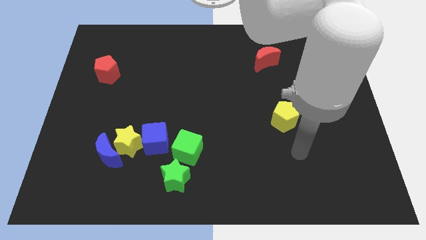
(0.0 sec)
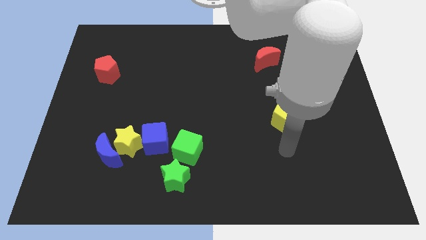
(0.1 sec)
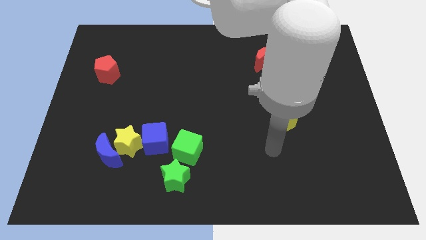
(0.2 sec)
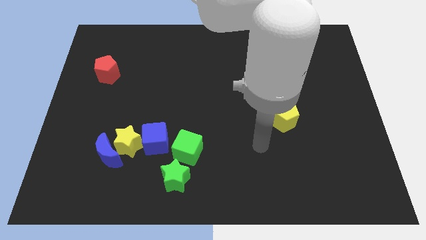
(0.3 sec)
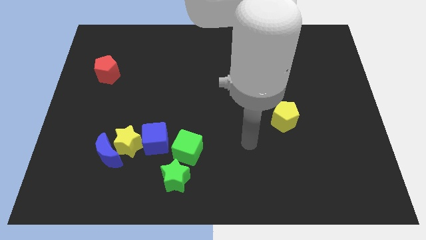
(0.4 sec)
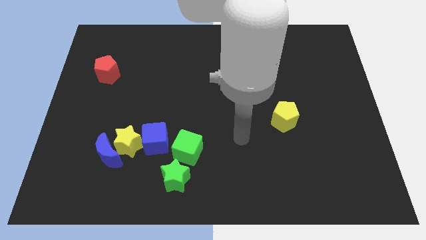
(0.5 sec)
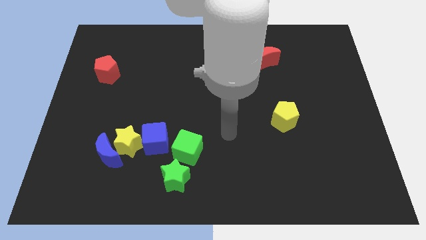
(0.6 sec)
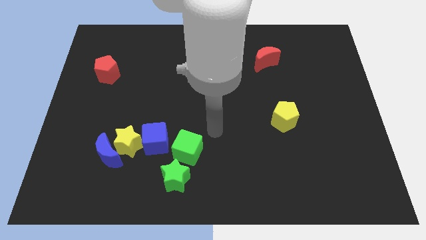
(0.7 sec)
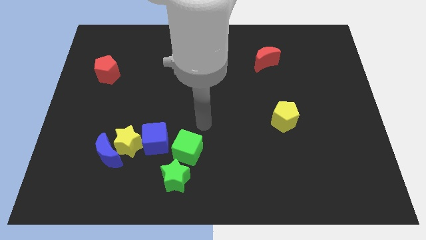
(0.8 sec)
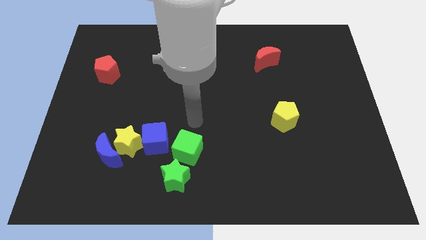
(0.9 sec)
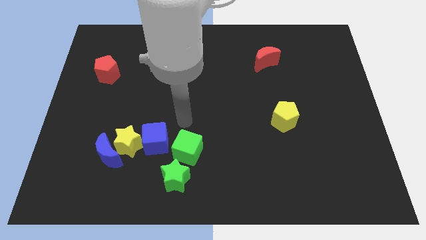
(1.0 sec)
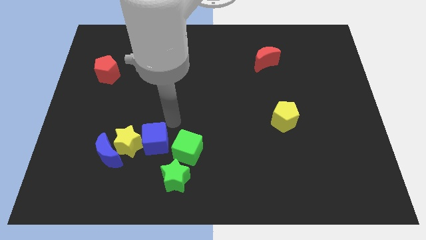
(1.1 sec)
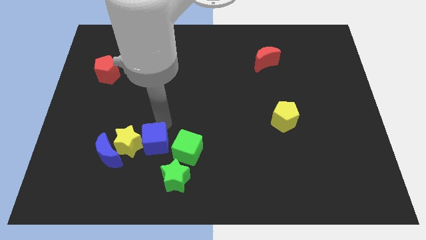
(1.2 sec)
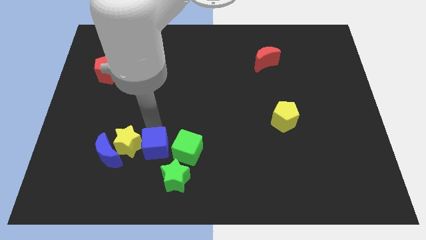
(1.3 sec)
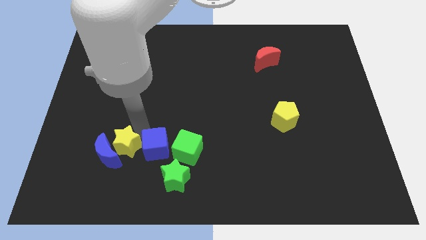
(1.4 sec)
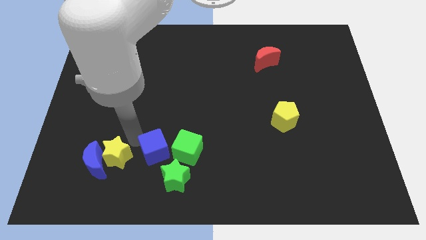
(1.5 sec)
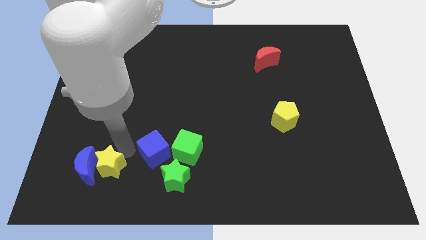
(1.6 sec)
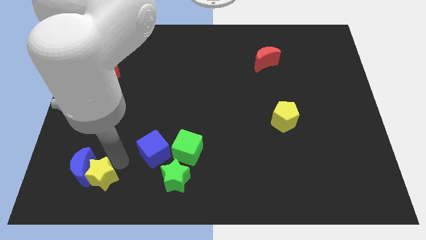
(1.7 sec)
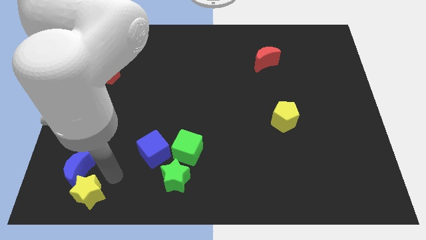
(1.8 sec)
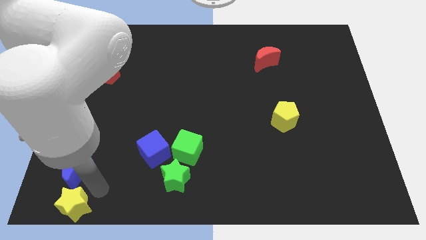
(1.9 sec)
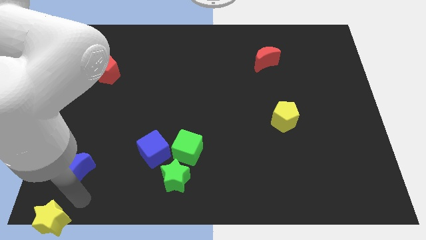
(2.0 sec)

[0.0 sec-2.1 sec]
pull the blue moon apart from the yellow star

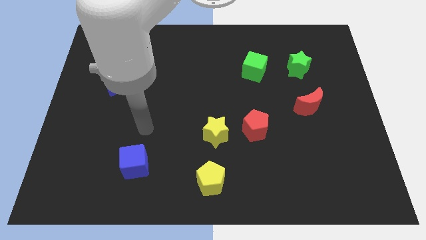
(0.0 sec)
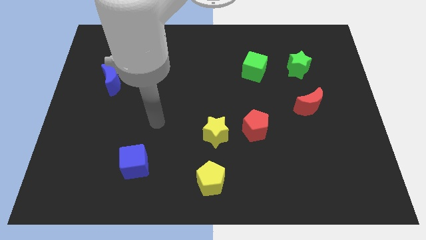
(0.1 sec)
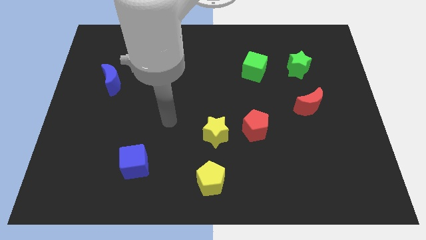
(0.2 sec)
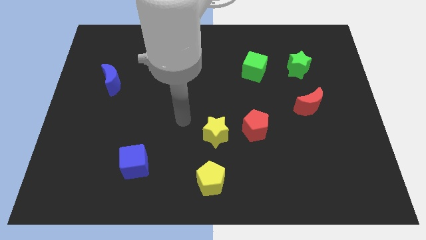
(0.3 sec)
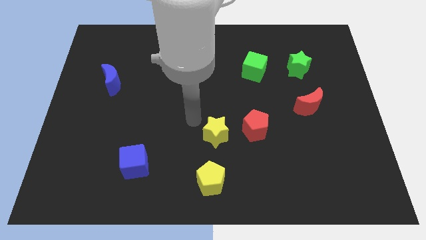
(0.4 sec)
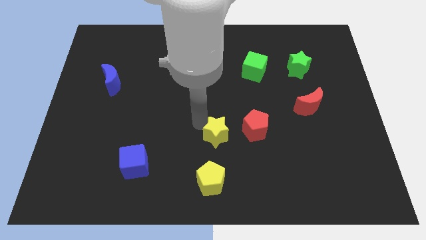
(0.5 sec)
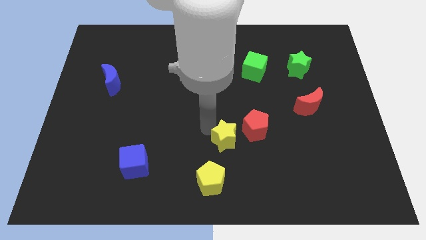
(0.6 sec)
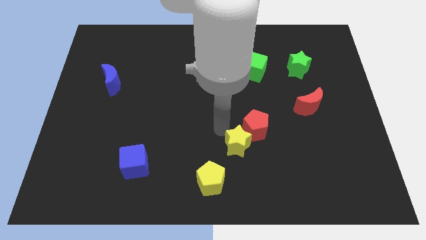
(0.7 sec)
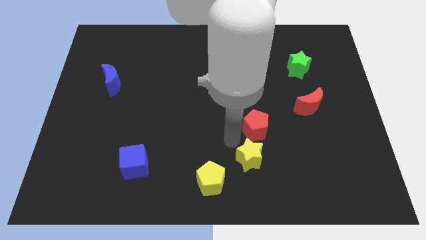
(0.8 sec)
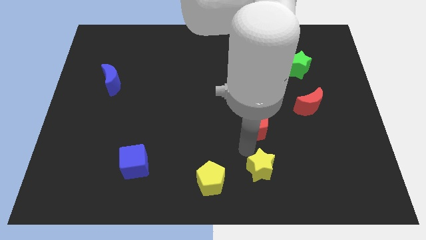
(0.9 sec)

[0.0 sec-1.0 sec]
pull the red pentagon apart from the yellow star

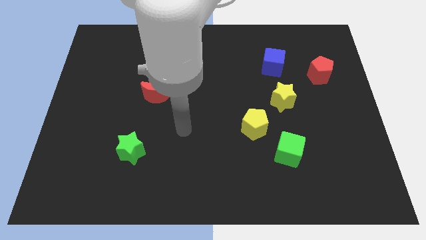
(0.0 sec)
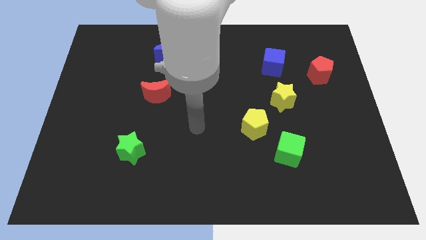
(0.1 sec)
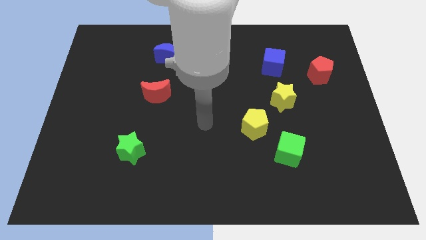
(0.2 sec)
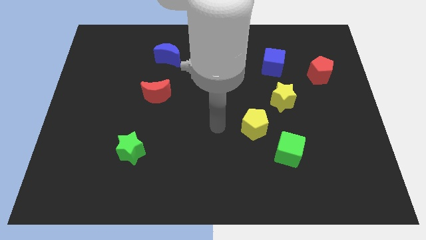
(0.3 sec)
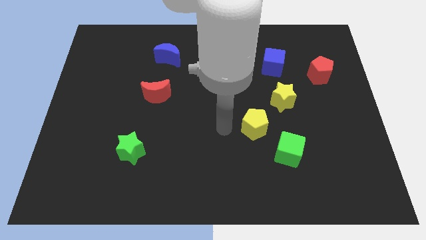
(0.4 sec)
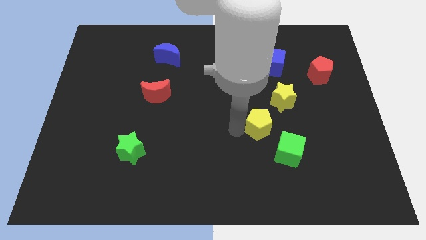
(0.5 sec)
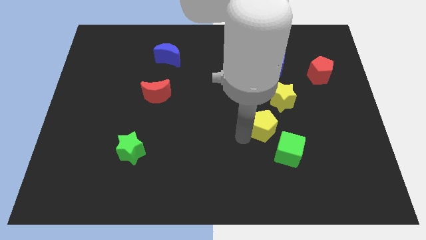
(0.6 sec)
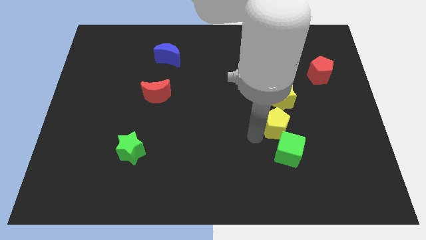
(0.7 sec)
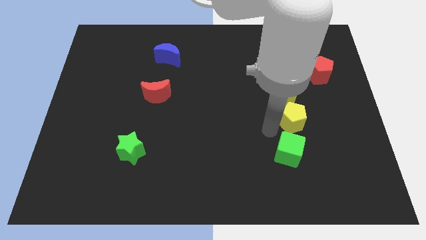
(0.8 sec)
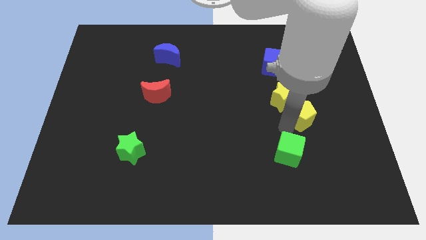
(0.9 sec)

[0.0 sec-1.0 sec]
separate the green cube from the yellow pentagon

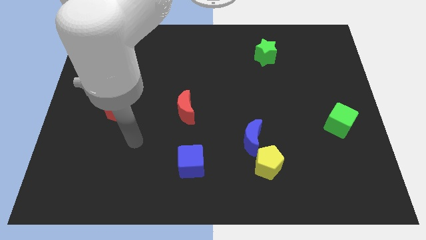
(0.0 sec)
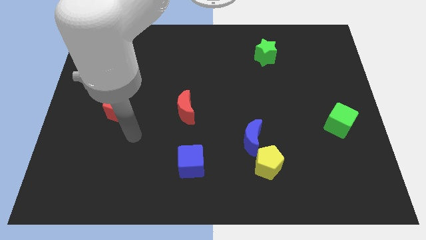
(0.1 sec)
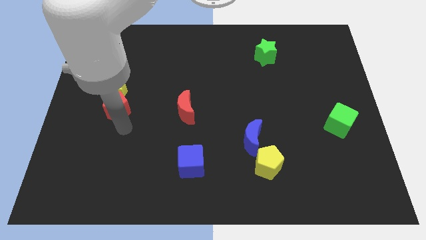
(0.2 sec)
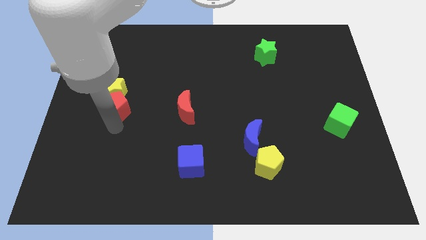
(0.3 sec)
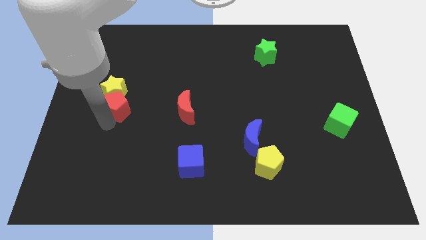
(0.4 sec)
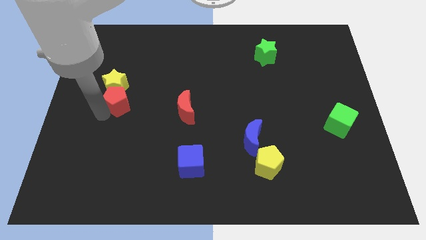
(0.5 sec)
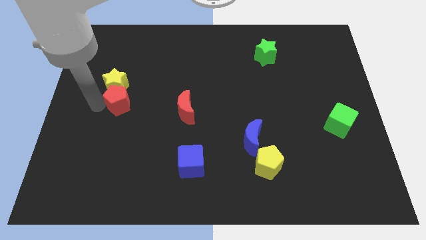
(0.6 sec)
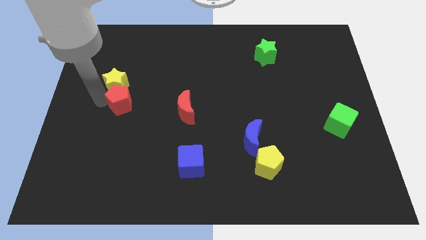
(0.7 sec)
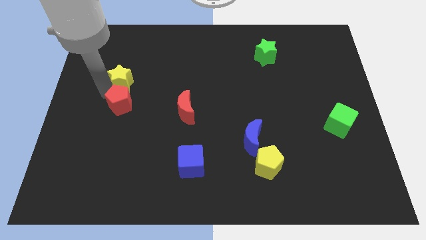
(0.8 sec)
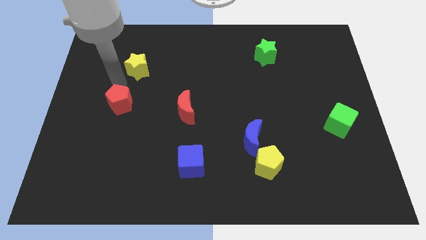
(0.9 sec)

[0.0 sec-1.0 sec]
move the red pentagon away from the yellow star

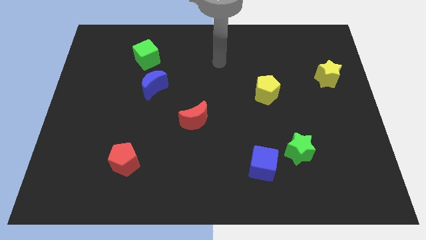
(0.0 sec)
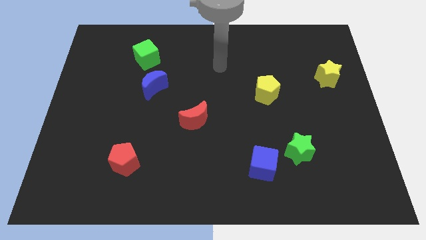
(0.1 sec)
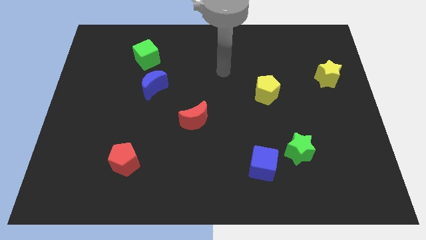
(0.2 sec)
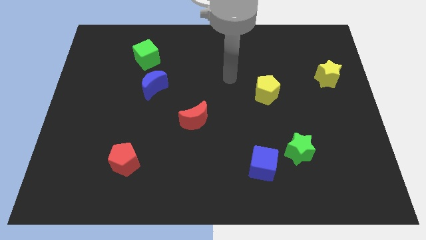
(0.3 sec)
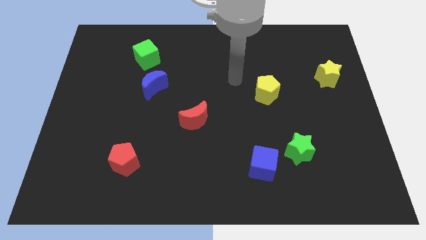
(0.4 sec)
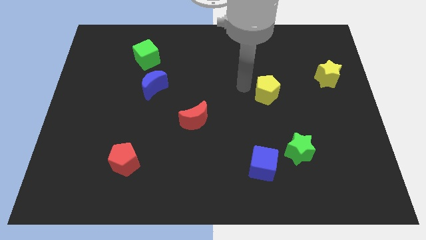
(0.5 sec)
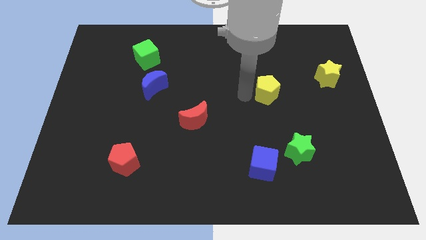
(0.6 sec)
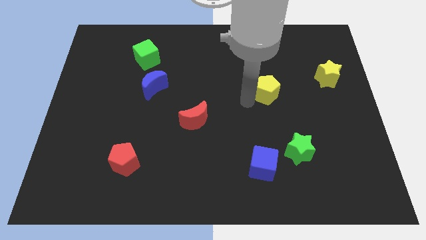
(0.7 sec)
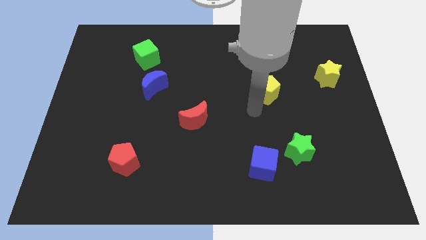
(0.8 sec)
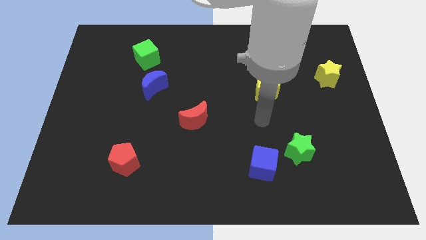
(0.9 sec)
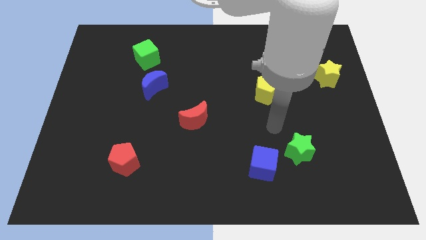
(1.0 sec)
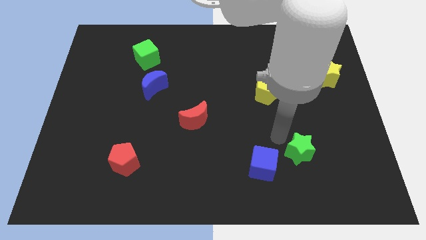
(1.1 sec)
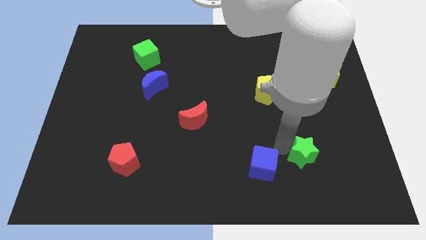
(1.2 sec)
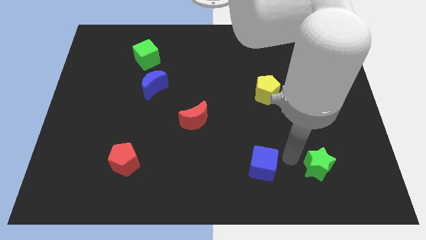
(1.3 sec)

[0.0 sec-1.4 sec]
separate the blue cube from the green star

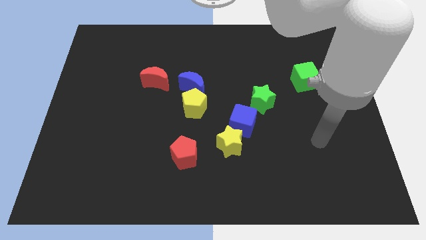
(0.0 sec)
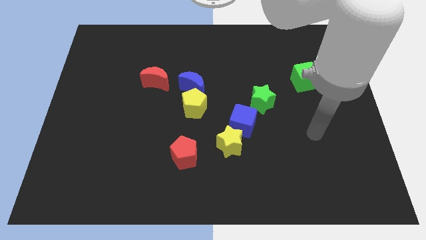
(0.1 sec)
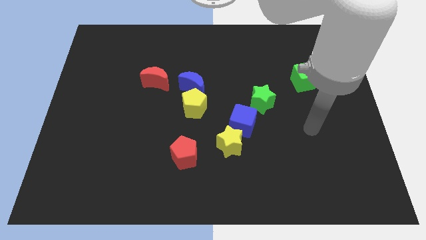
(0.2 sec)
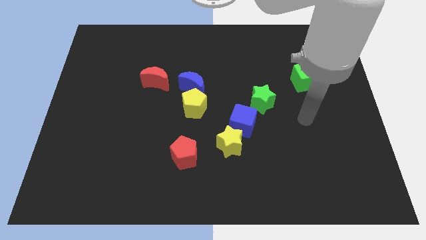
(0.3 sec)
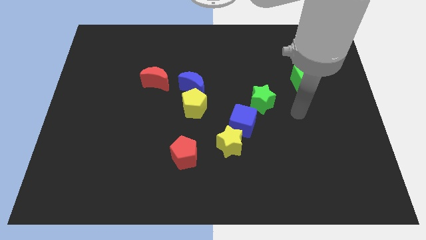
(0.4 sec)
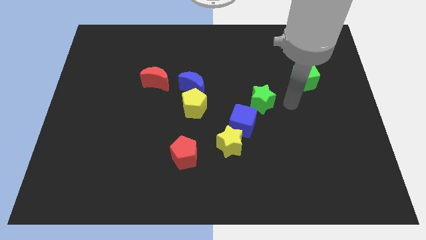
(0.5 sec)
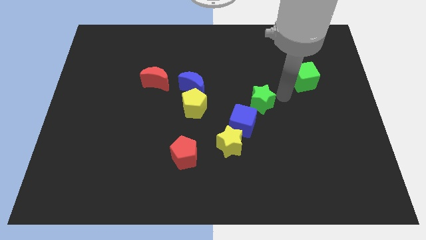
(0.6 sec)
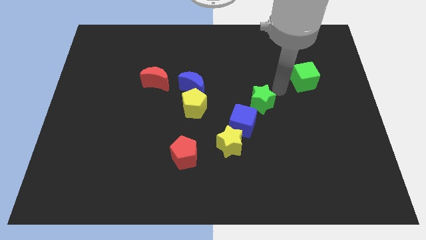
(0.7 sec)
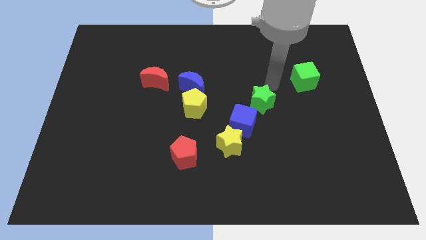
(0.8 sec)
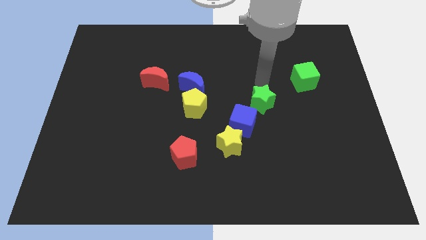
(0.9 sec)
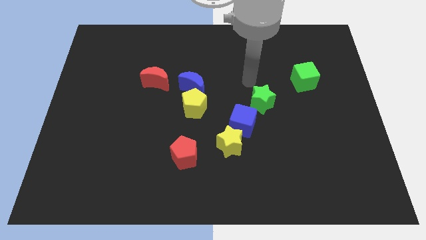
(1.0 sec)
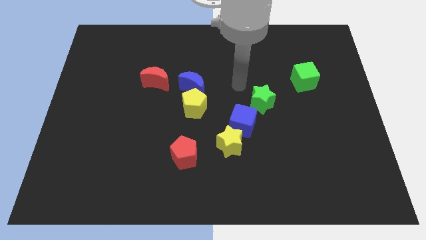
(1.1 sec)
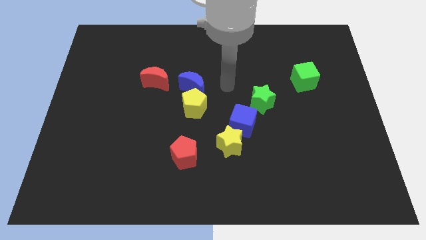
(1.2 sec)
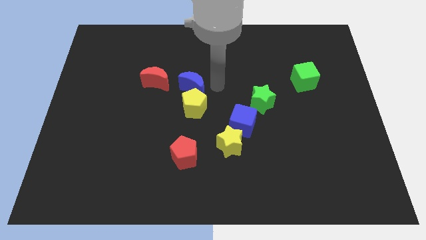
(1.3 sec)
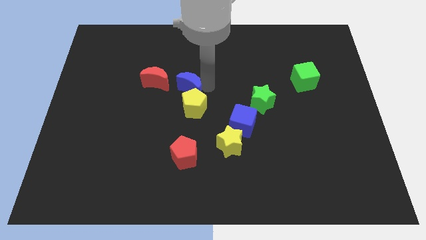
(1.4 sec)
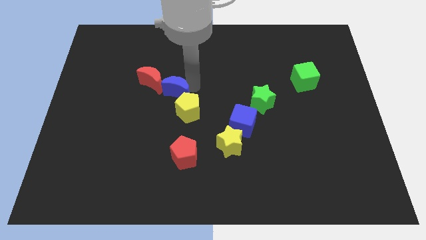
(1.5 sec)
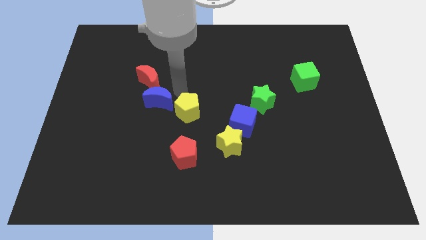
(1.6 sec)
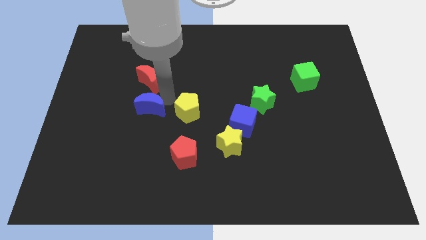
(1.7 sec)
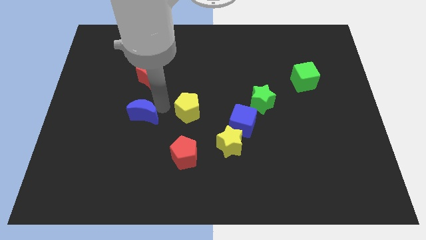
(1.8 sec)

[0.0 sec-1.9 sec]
move the yellow pentagon away from the blue moon

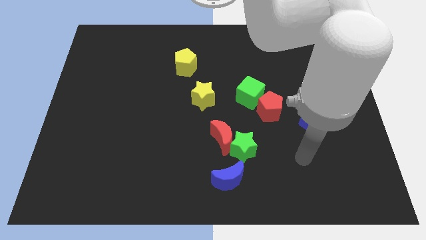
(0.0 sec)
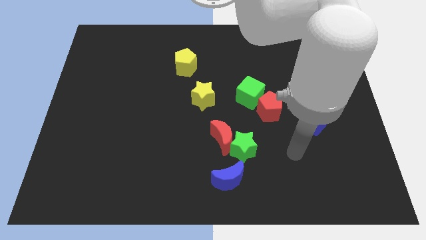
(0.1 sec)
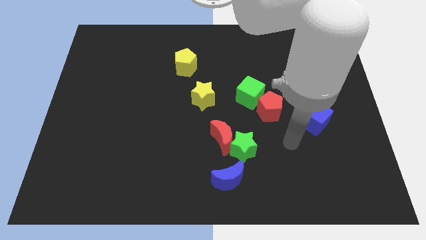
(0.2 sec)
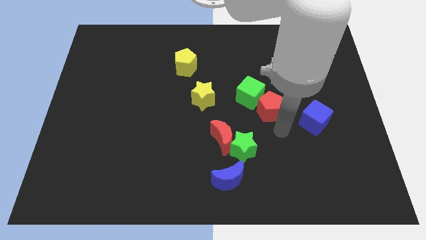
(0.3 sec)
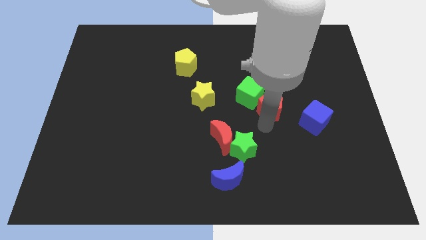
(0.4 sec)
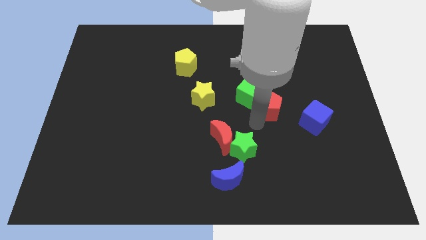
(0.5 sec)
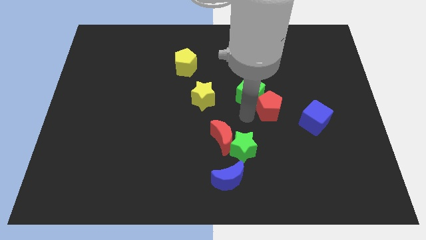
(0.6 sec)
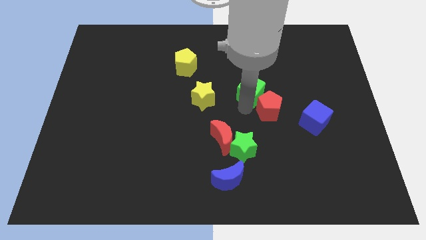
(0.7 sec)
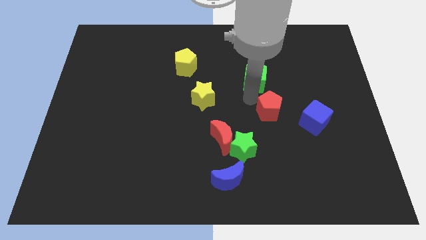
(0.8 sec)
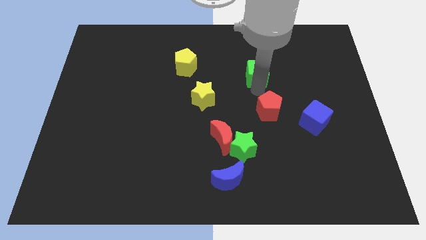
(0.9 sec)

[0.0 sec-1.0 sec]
pull the red pentagon apart from the green cube
